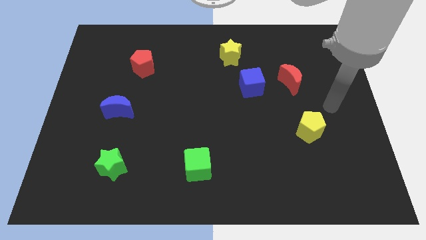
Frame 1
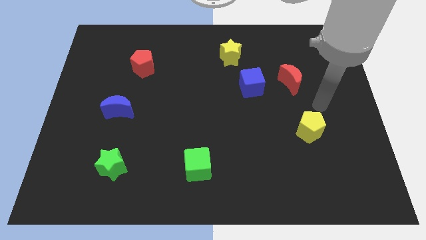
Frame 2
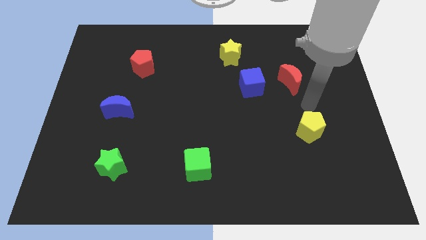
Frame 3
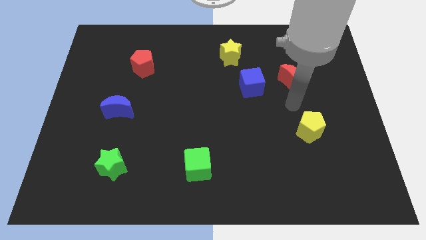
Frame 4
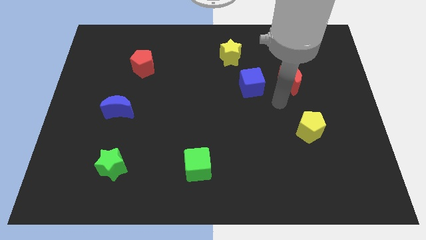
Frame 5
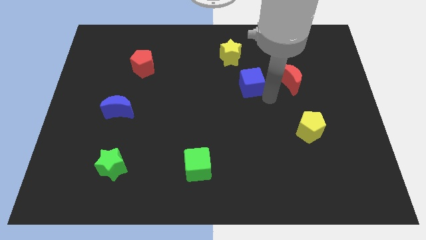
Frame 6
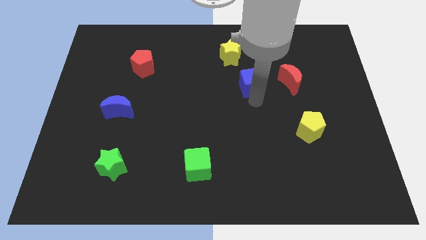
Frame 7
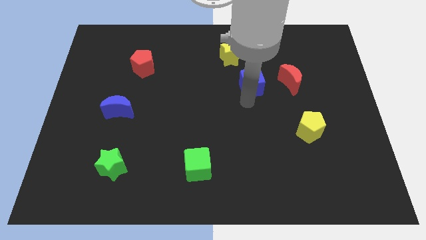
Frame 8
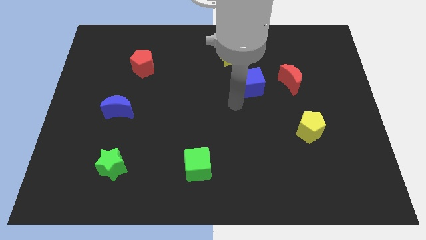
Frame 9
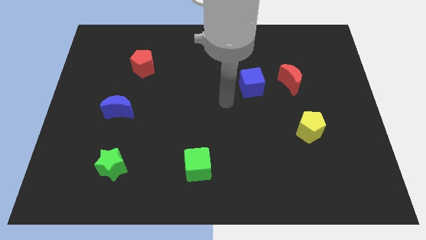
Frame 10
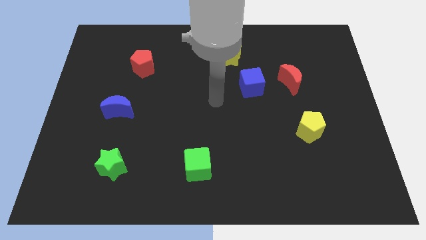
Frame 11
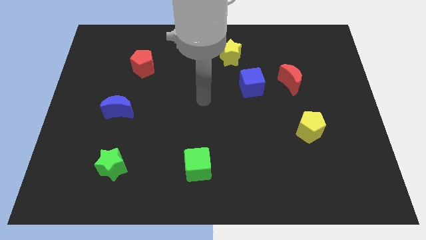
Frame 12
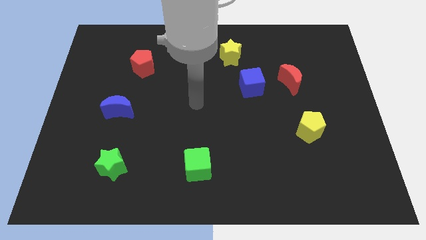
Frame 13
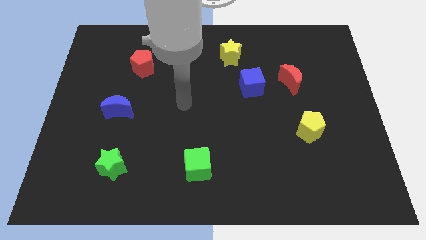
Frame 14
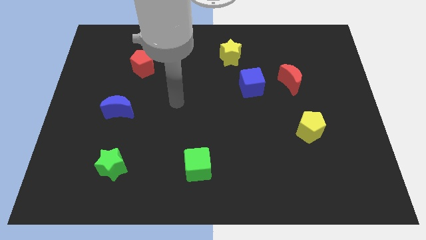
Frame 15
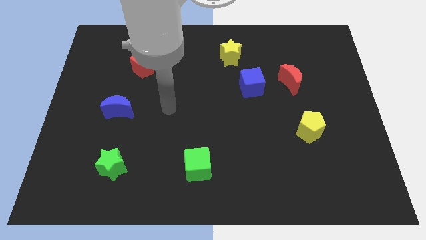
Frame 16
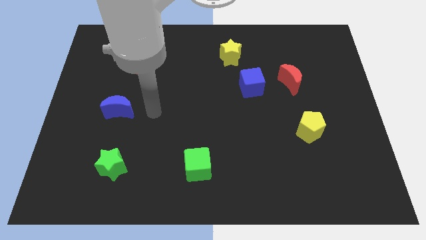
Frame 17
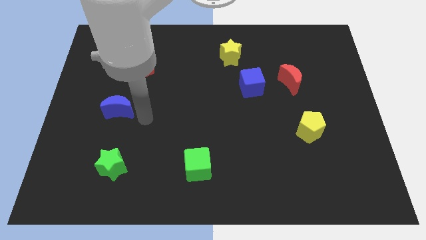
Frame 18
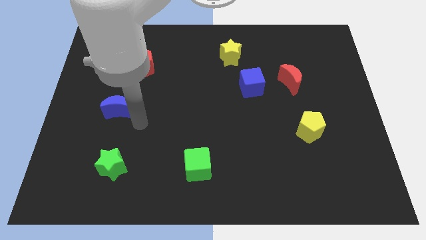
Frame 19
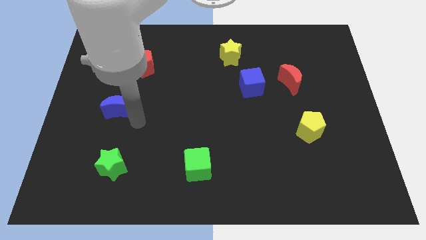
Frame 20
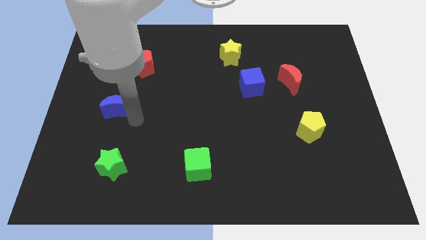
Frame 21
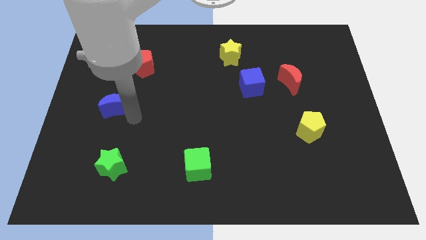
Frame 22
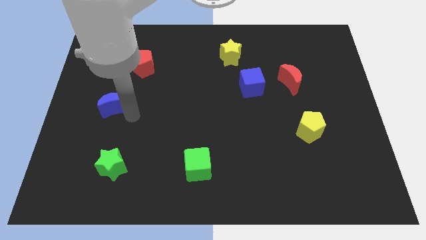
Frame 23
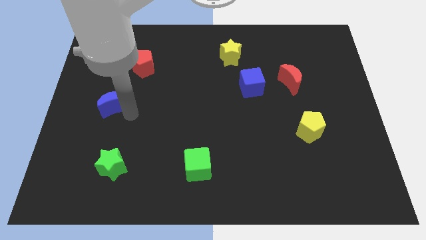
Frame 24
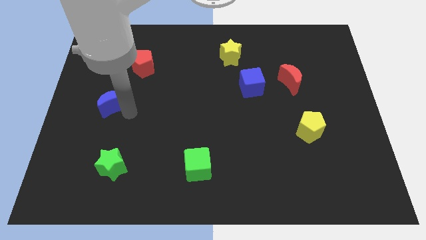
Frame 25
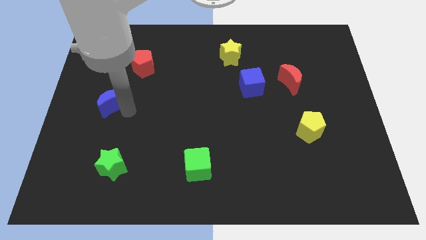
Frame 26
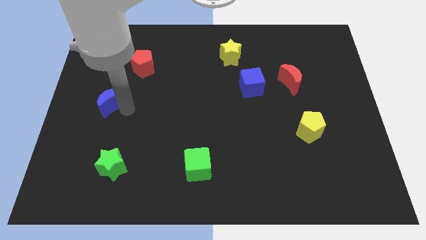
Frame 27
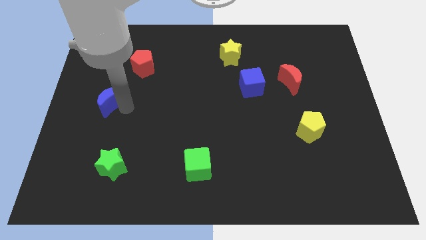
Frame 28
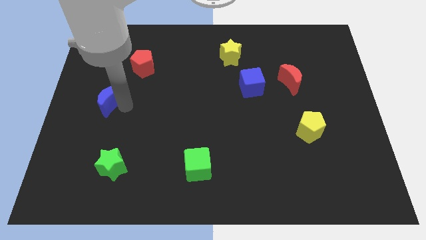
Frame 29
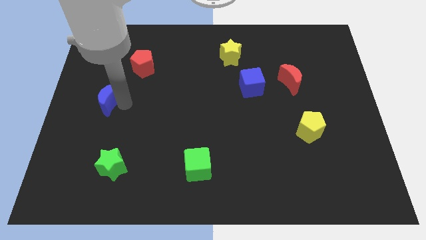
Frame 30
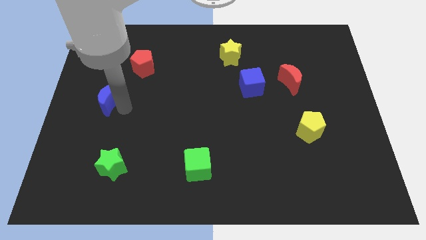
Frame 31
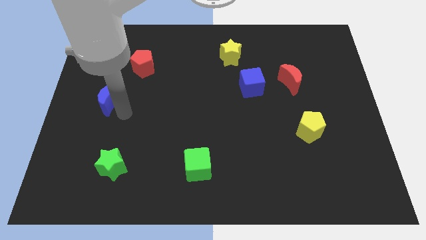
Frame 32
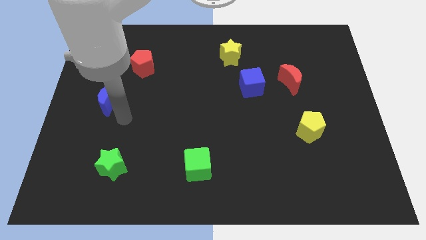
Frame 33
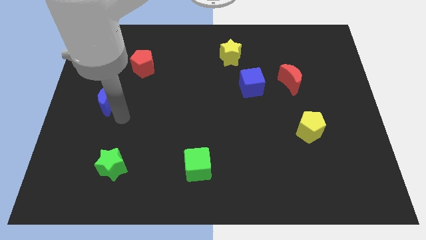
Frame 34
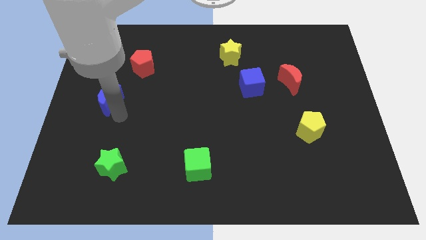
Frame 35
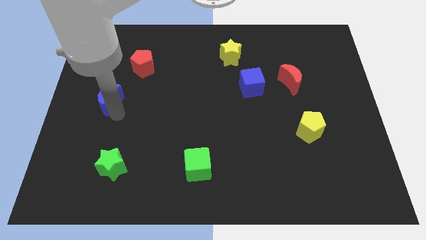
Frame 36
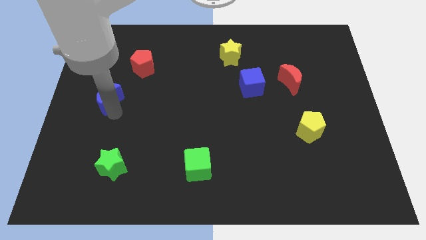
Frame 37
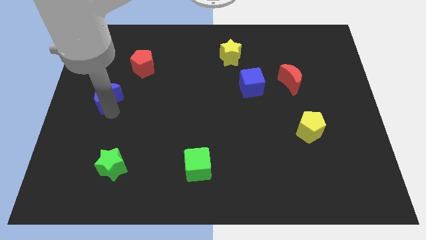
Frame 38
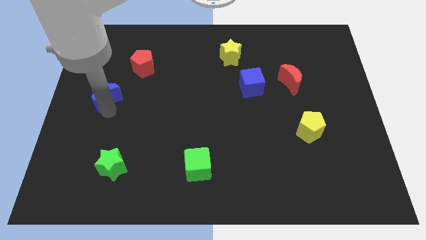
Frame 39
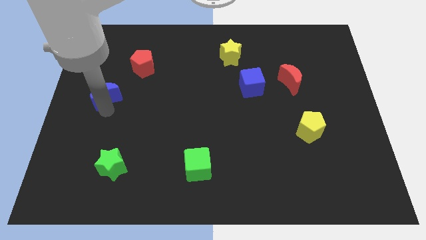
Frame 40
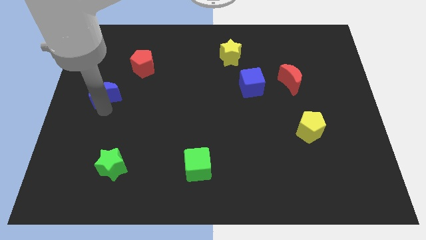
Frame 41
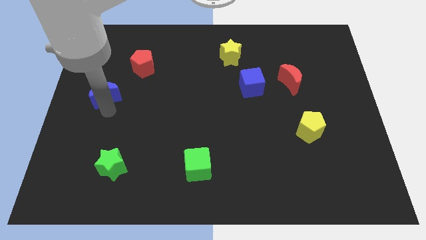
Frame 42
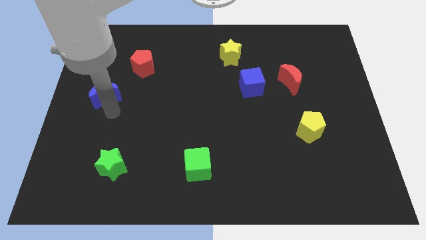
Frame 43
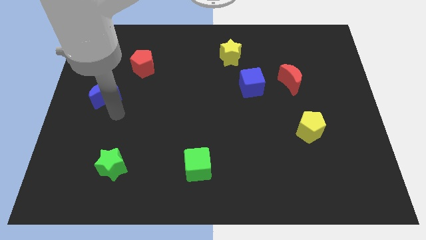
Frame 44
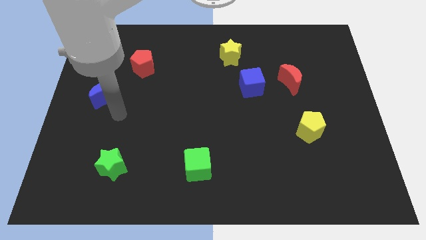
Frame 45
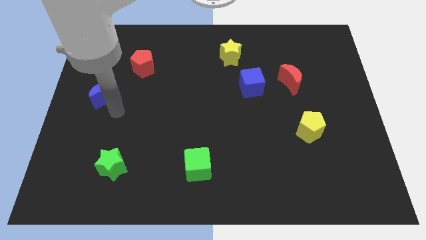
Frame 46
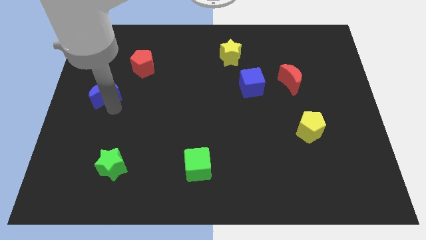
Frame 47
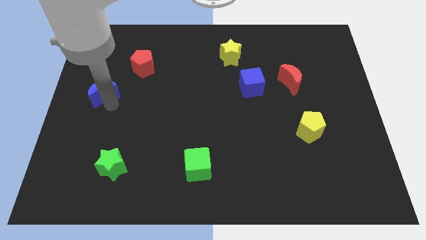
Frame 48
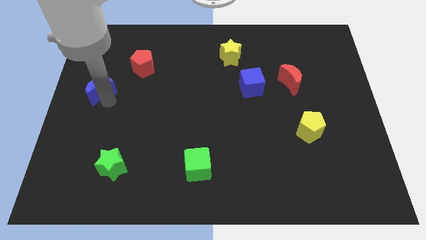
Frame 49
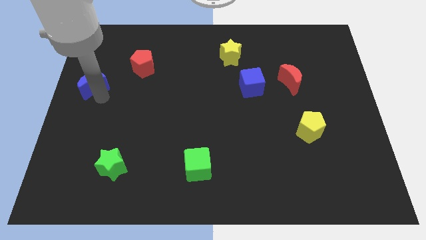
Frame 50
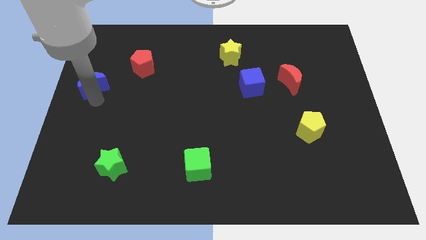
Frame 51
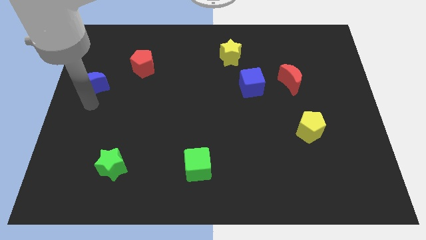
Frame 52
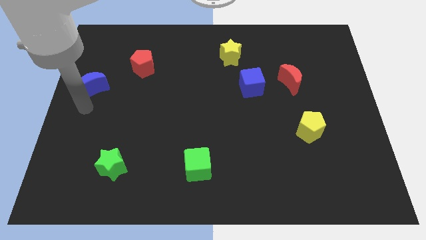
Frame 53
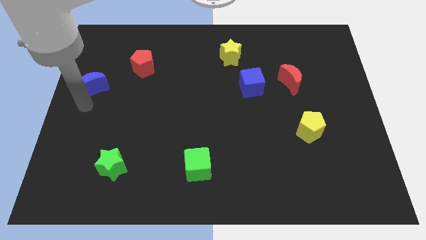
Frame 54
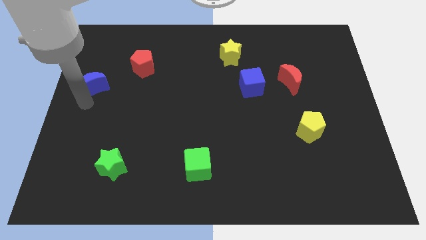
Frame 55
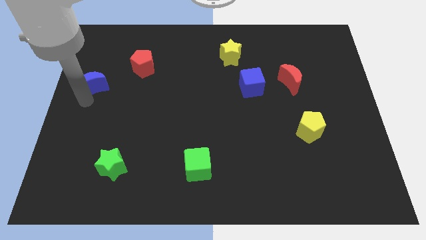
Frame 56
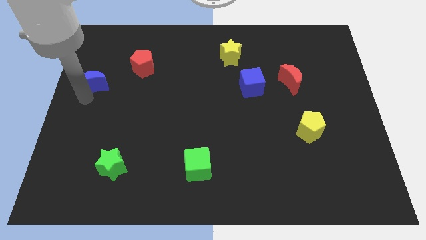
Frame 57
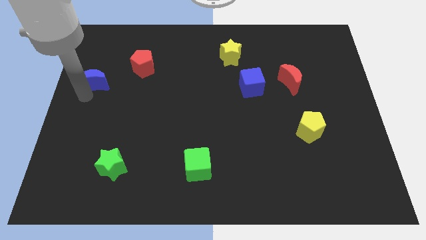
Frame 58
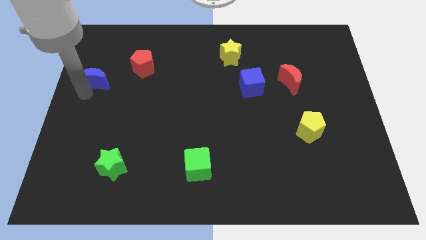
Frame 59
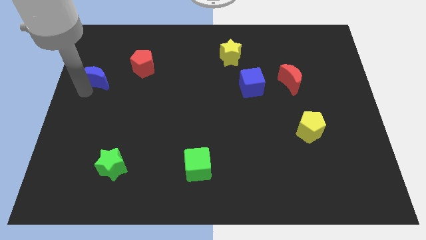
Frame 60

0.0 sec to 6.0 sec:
move the blue moon just left of the red pentagon

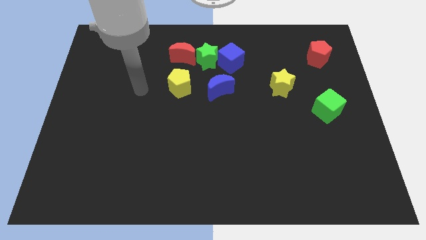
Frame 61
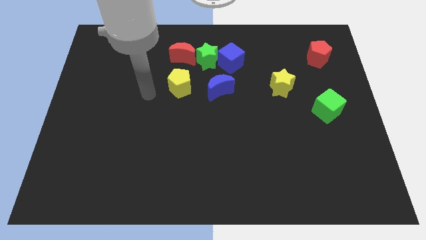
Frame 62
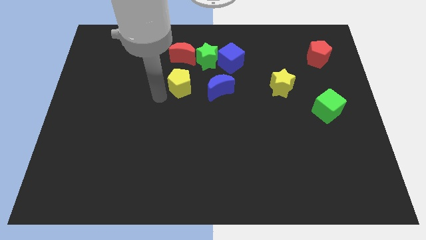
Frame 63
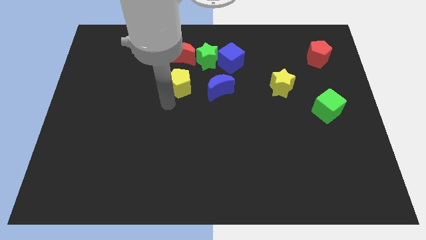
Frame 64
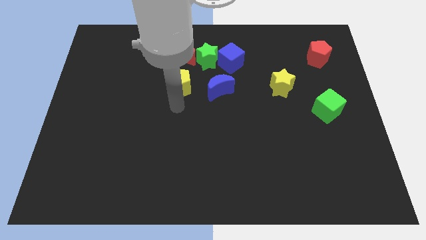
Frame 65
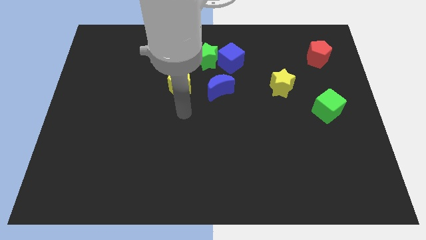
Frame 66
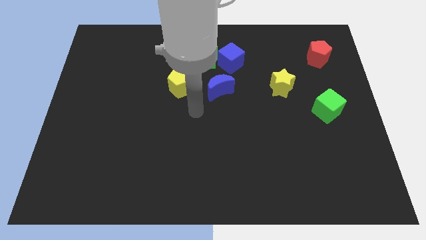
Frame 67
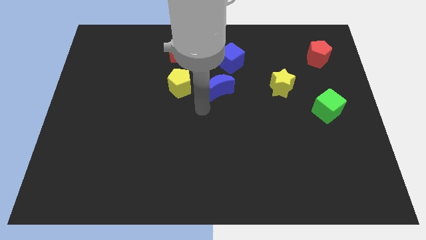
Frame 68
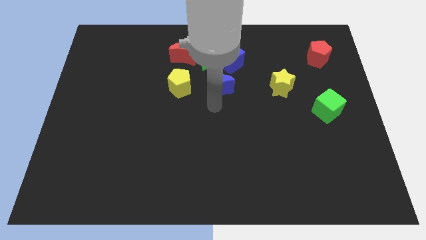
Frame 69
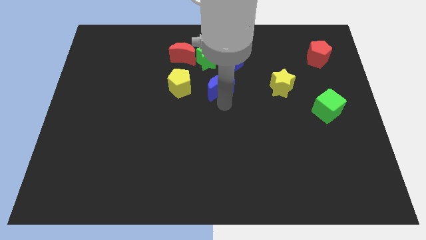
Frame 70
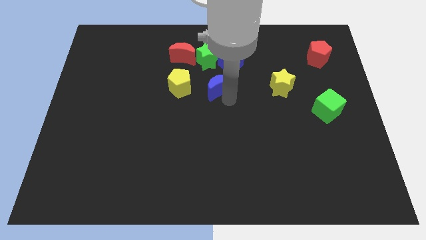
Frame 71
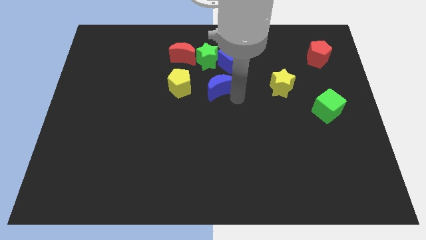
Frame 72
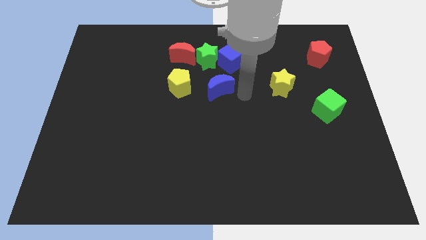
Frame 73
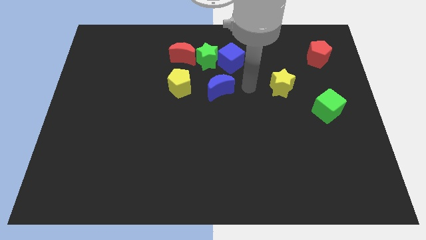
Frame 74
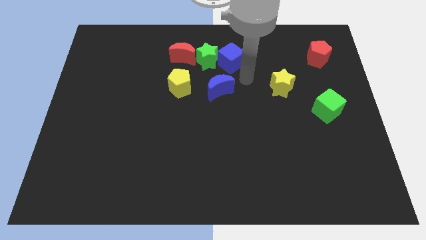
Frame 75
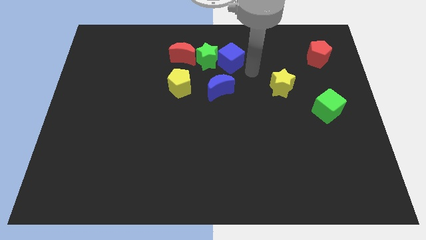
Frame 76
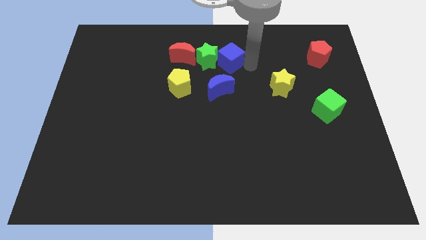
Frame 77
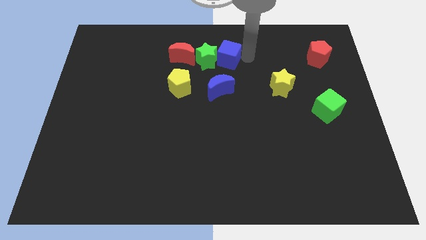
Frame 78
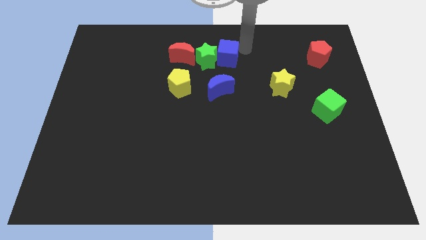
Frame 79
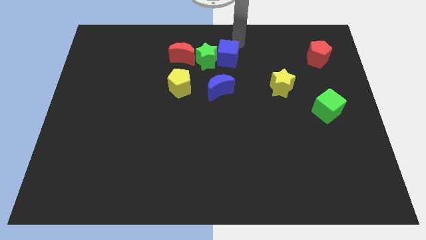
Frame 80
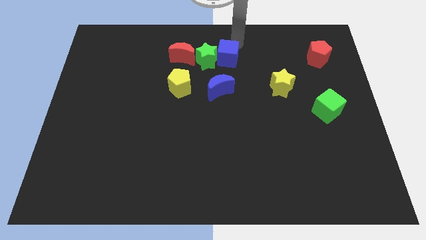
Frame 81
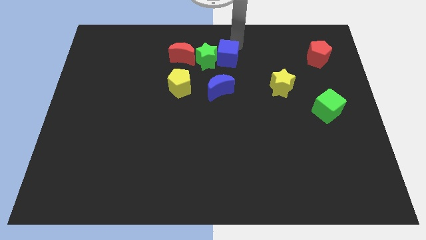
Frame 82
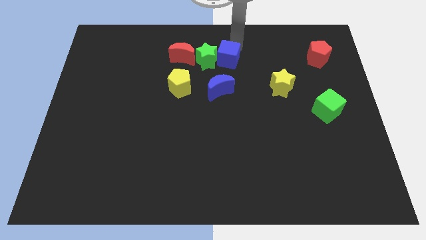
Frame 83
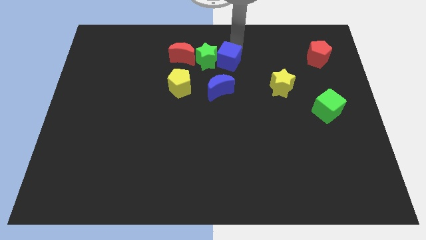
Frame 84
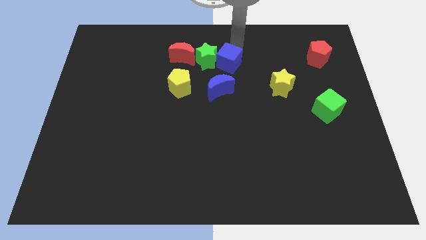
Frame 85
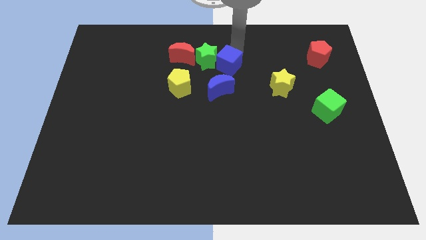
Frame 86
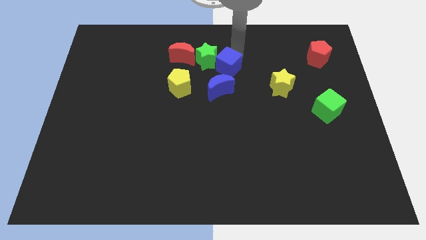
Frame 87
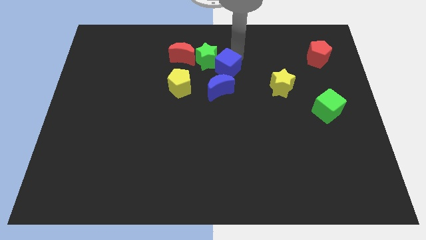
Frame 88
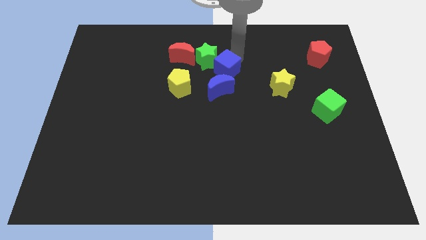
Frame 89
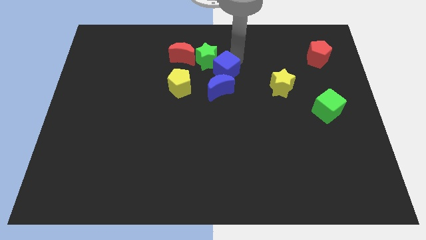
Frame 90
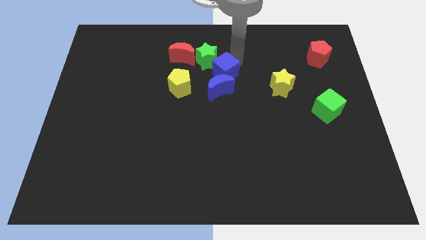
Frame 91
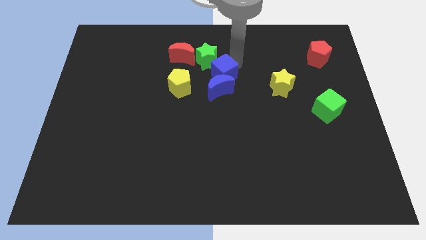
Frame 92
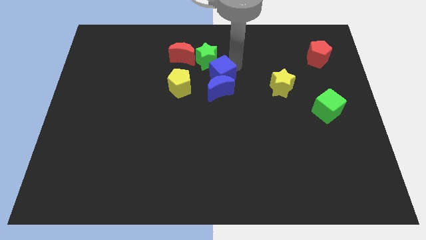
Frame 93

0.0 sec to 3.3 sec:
push the blue cube to the top right of the yellow pentagon
